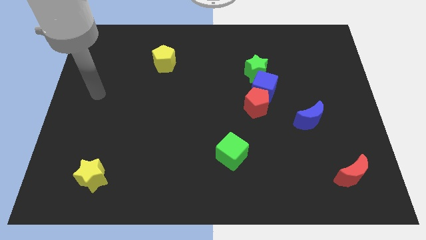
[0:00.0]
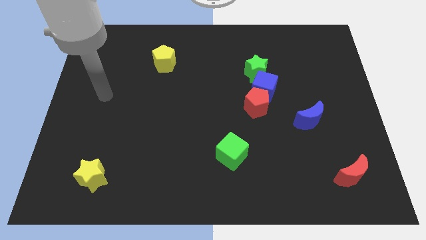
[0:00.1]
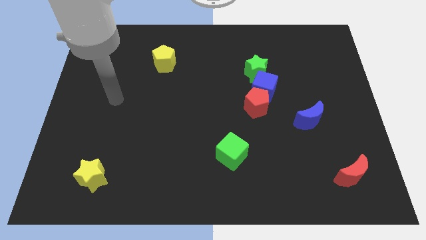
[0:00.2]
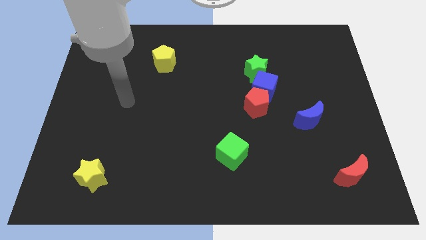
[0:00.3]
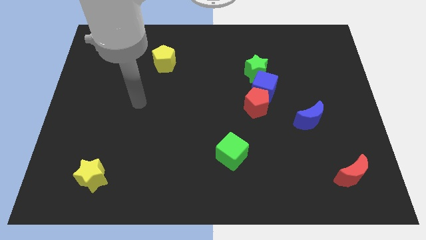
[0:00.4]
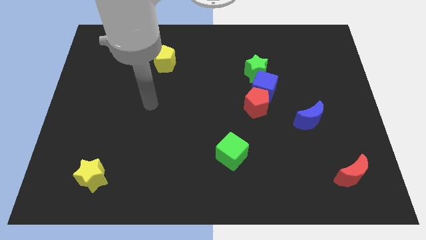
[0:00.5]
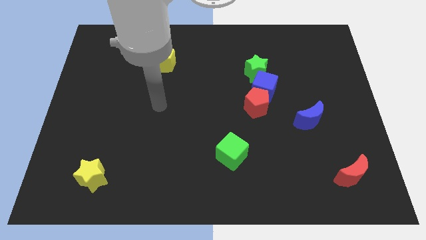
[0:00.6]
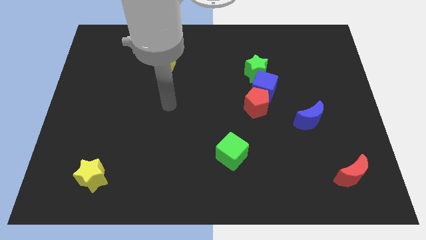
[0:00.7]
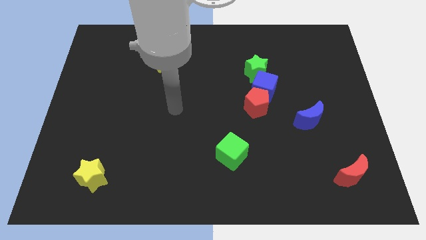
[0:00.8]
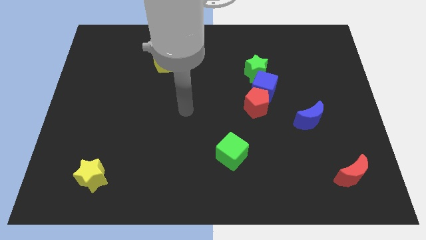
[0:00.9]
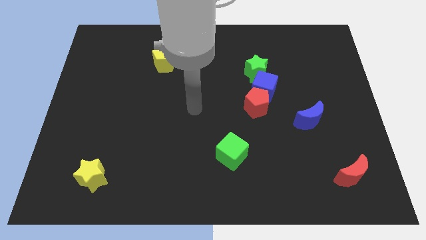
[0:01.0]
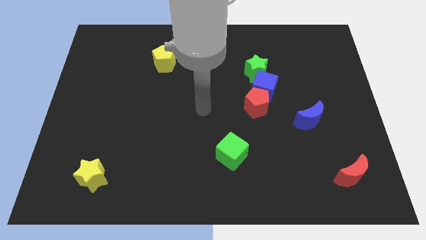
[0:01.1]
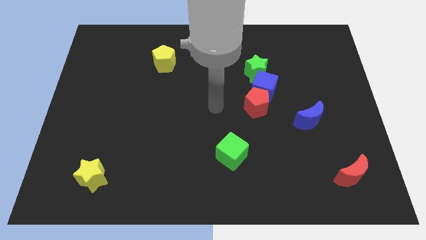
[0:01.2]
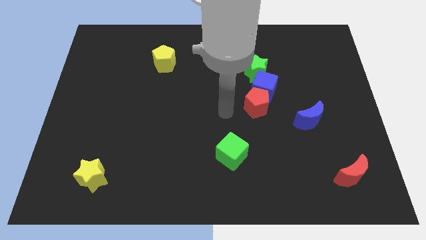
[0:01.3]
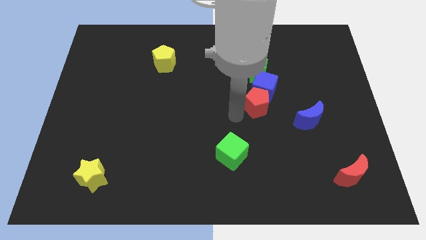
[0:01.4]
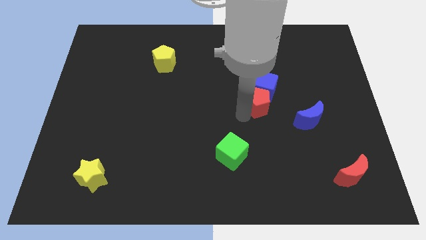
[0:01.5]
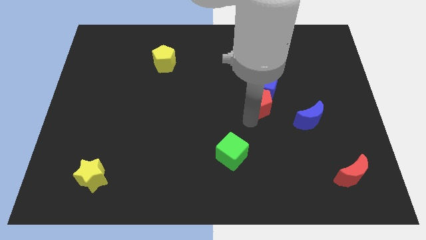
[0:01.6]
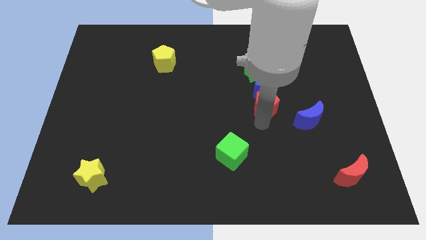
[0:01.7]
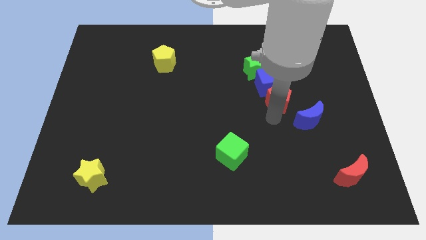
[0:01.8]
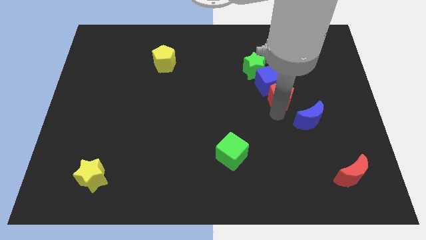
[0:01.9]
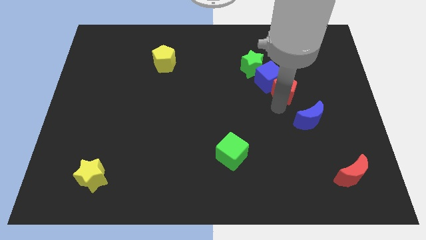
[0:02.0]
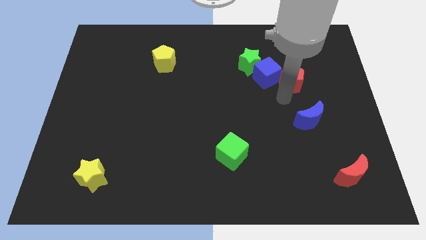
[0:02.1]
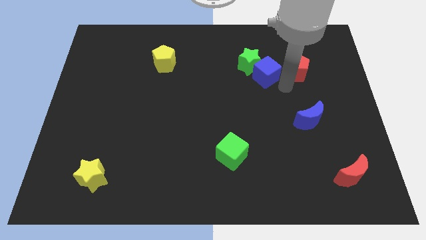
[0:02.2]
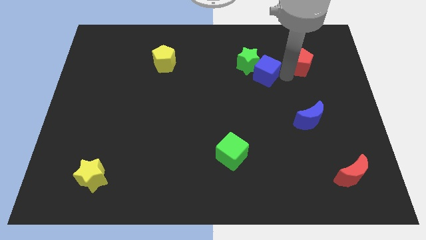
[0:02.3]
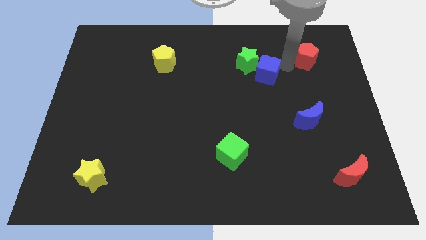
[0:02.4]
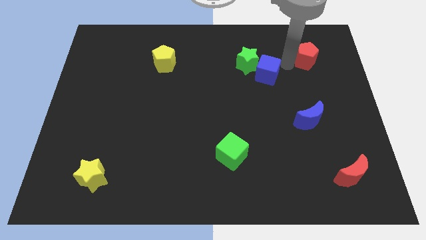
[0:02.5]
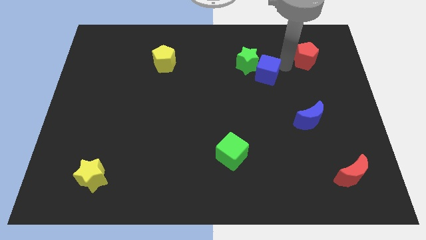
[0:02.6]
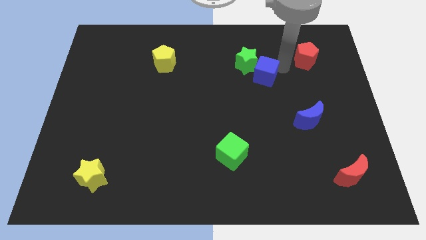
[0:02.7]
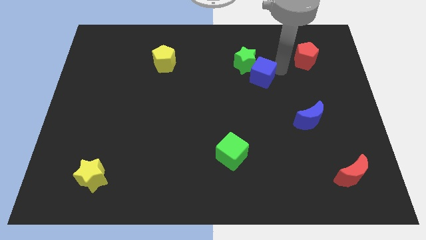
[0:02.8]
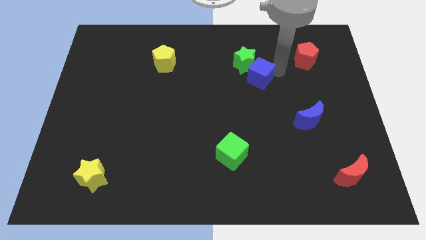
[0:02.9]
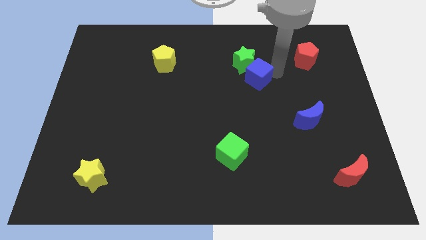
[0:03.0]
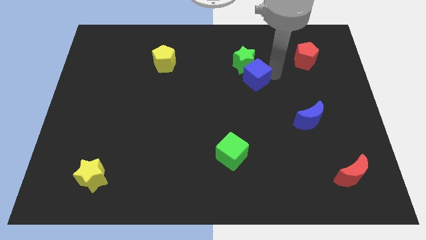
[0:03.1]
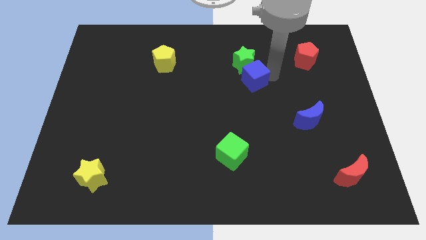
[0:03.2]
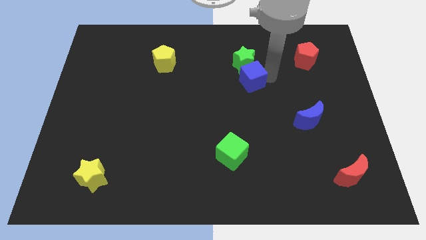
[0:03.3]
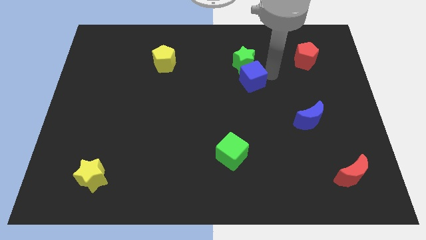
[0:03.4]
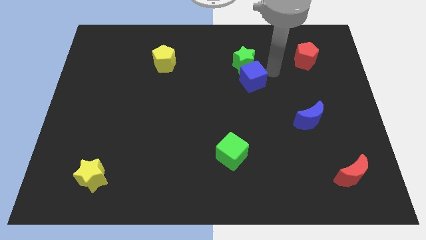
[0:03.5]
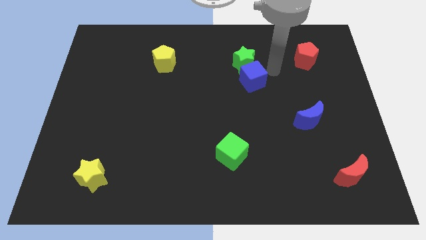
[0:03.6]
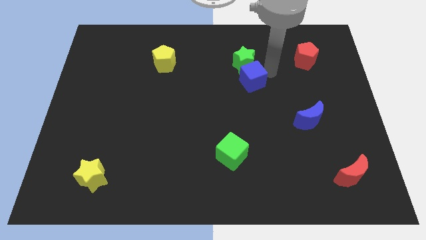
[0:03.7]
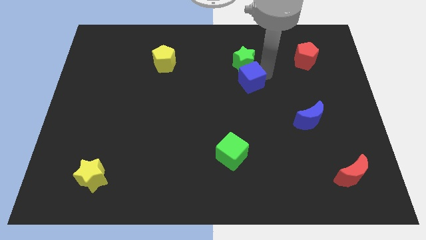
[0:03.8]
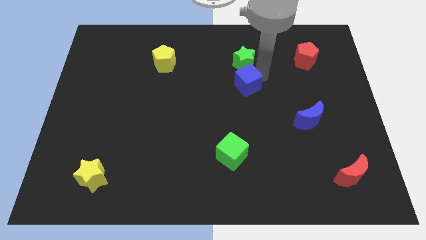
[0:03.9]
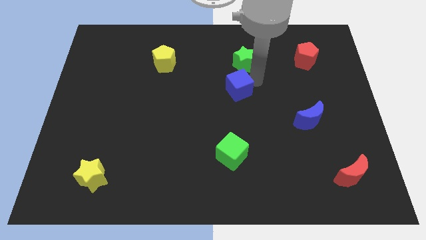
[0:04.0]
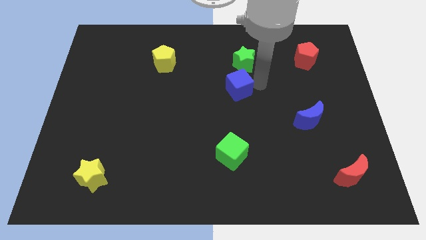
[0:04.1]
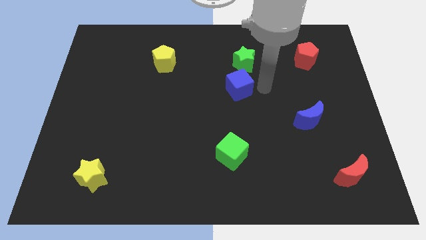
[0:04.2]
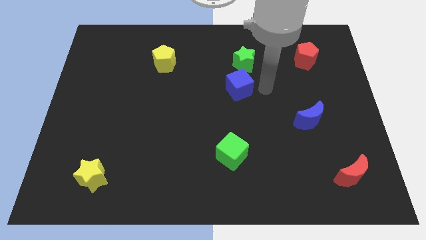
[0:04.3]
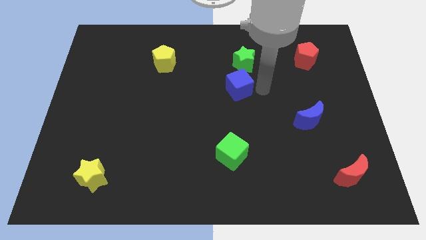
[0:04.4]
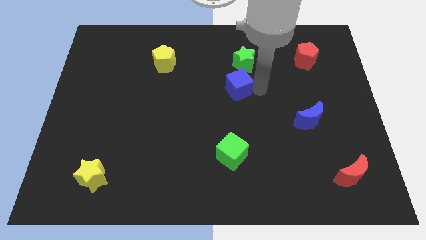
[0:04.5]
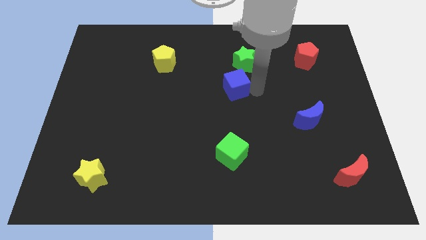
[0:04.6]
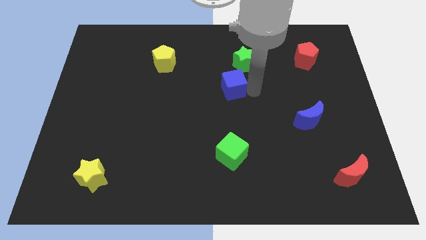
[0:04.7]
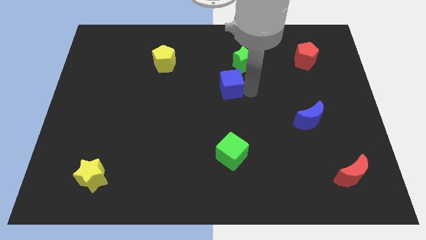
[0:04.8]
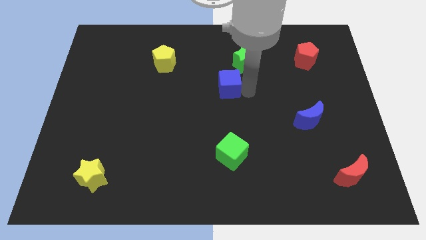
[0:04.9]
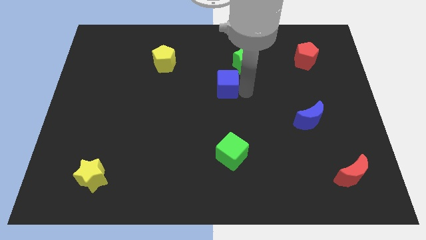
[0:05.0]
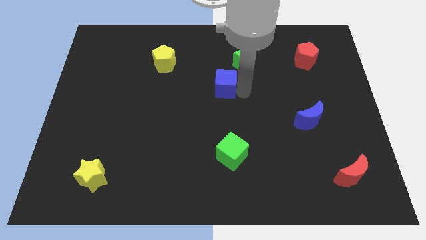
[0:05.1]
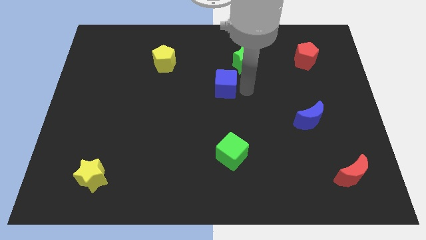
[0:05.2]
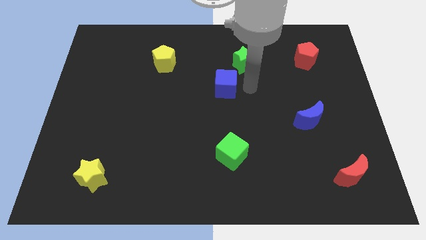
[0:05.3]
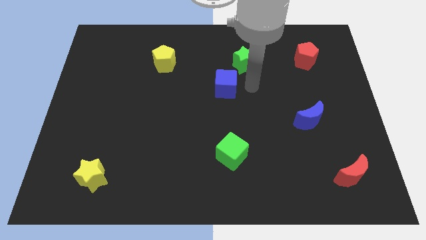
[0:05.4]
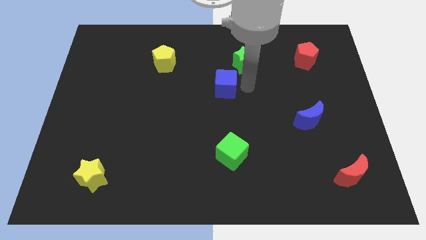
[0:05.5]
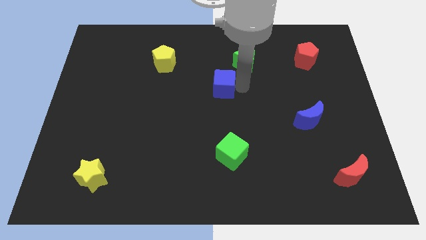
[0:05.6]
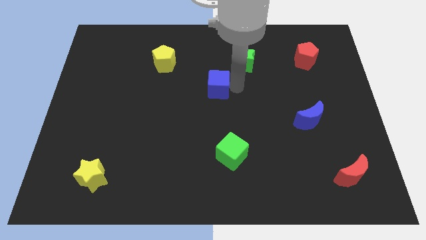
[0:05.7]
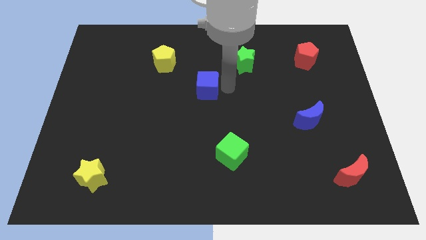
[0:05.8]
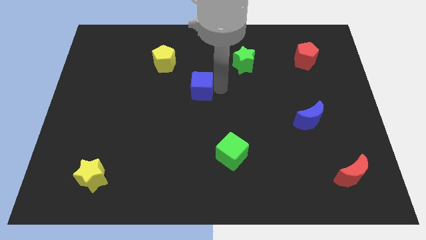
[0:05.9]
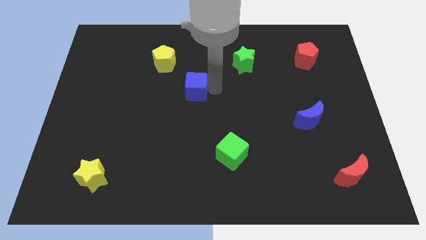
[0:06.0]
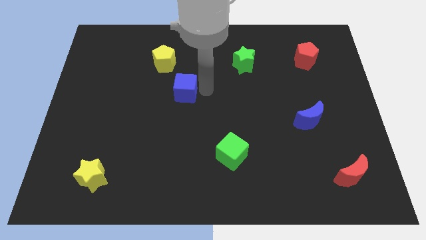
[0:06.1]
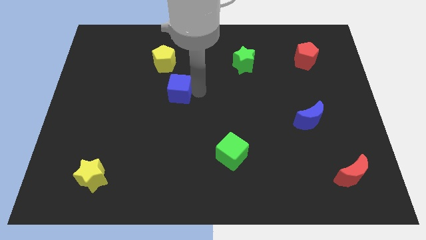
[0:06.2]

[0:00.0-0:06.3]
slide the blue cube left

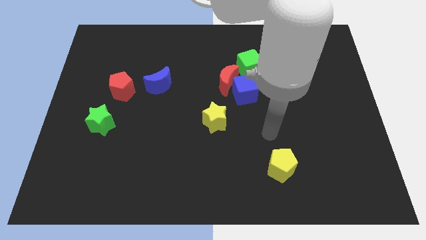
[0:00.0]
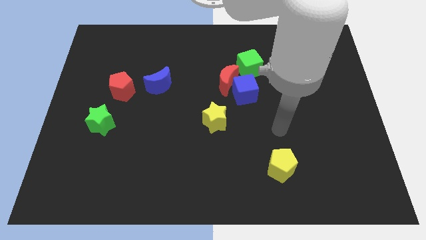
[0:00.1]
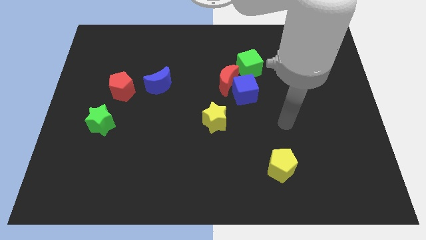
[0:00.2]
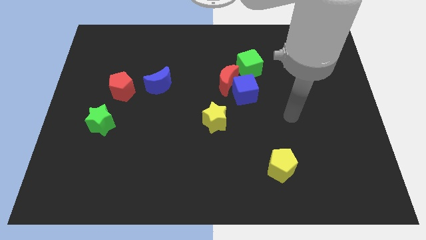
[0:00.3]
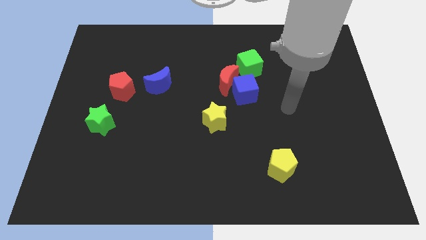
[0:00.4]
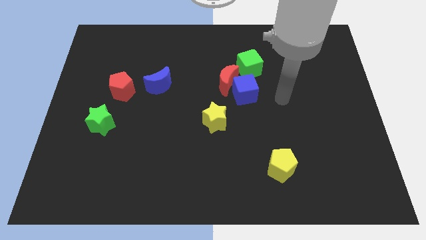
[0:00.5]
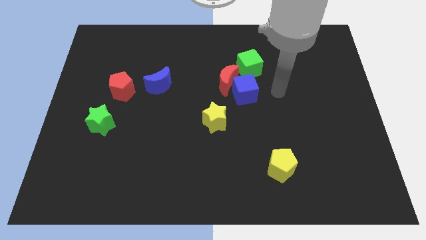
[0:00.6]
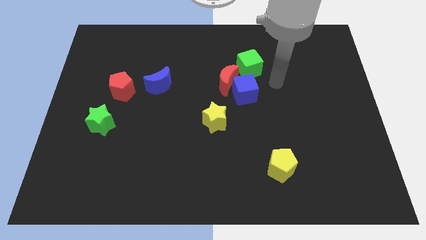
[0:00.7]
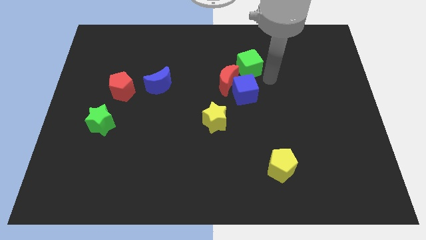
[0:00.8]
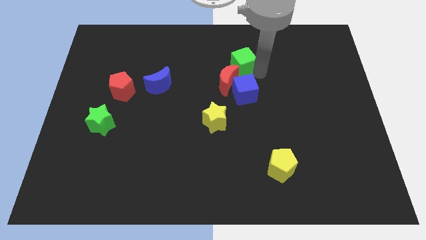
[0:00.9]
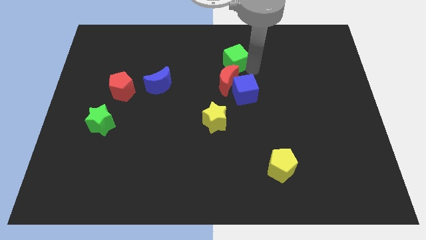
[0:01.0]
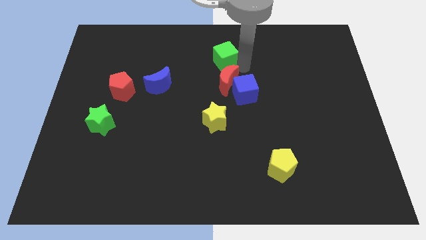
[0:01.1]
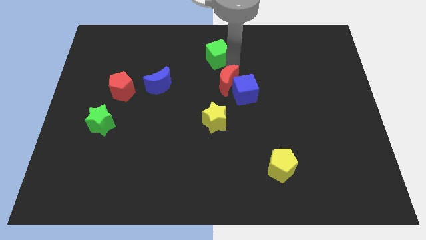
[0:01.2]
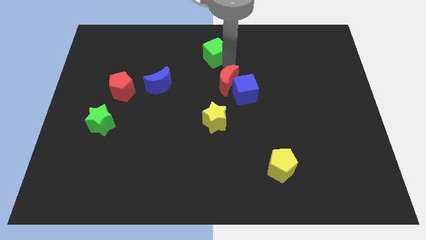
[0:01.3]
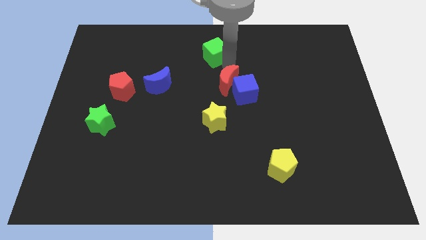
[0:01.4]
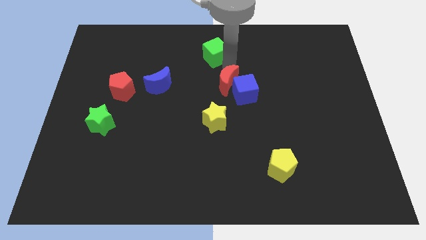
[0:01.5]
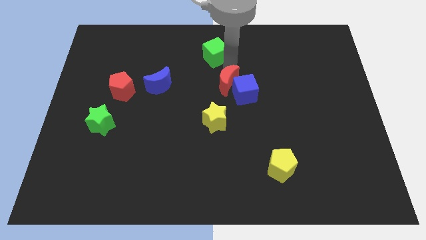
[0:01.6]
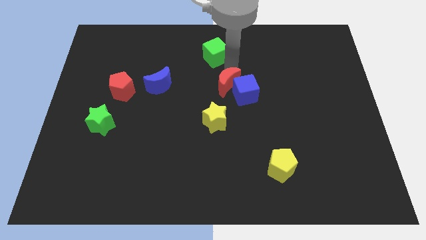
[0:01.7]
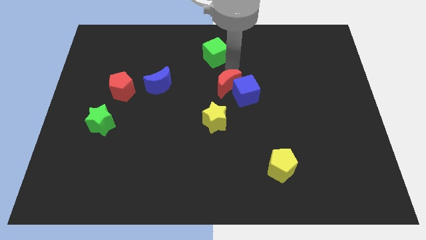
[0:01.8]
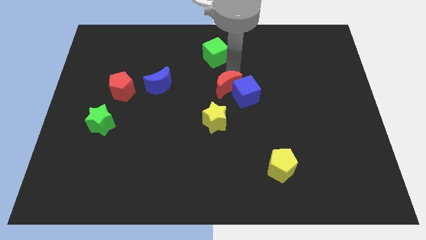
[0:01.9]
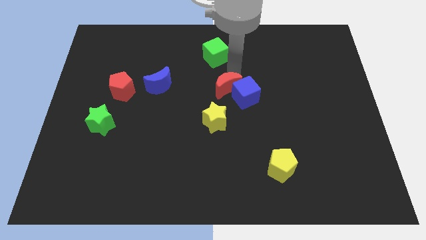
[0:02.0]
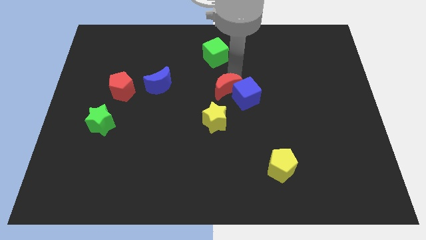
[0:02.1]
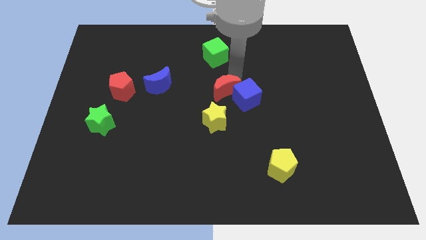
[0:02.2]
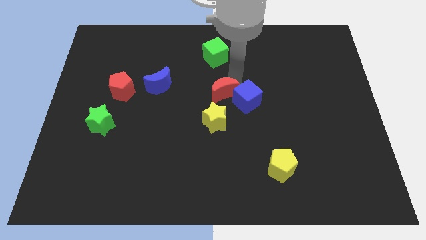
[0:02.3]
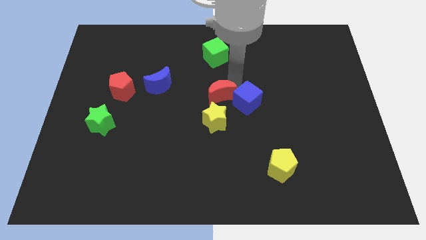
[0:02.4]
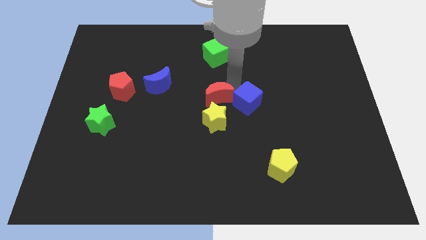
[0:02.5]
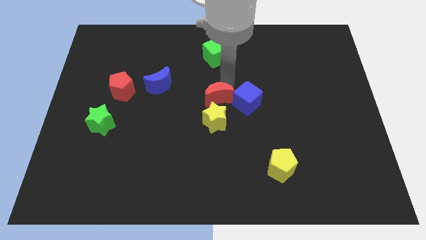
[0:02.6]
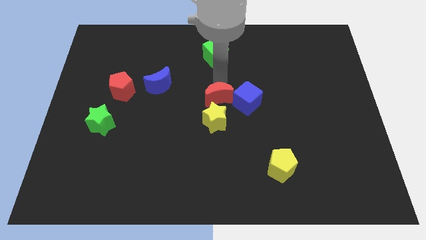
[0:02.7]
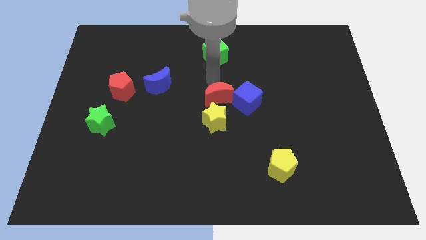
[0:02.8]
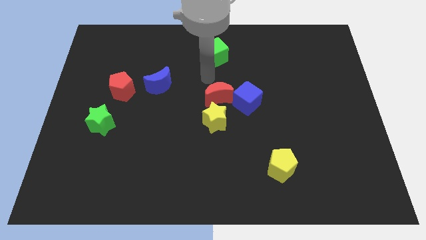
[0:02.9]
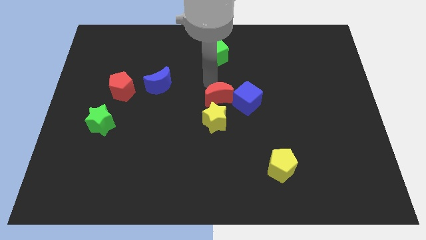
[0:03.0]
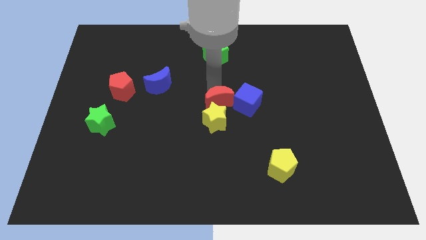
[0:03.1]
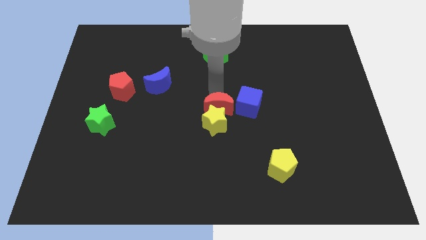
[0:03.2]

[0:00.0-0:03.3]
move the red moon slightly downwards
